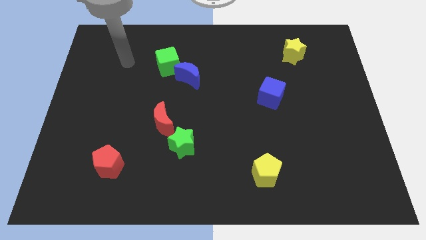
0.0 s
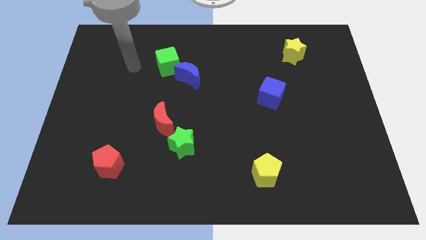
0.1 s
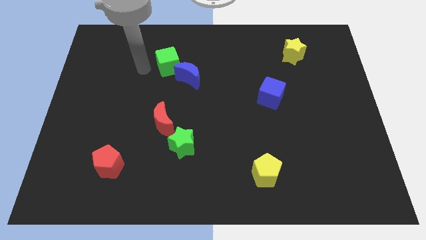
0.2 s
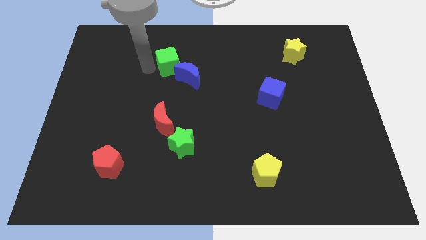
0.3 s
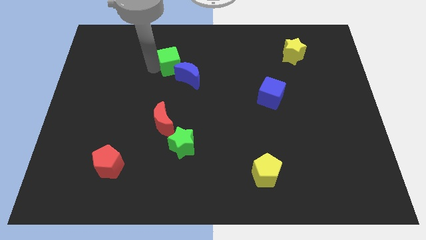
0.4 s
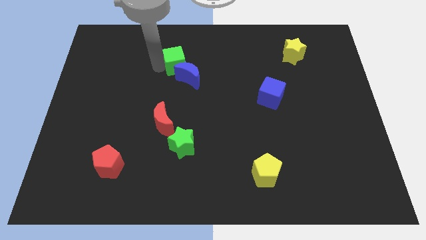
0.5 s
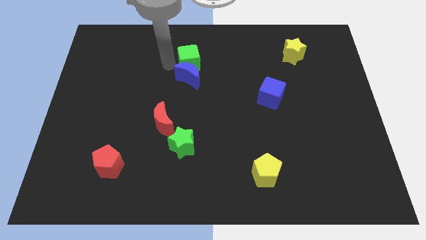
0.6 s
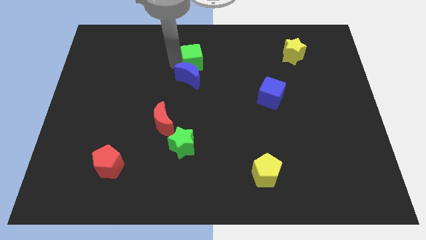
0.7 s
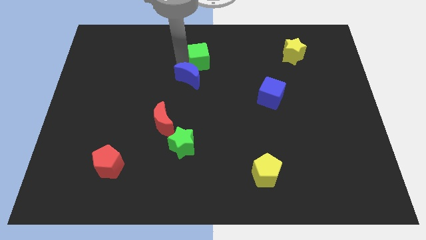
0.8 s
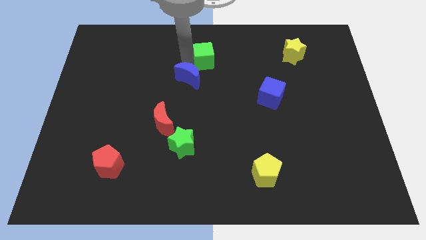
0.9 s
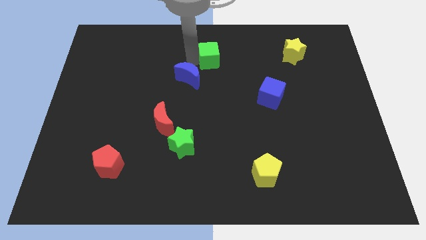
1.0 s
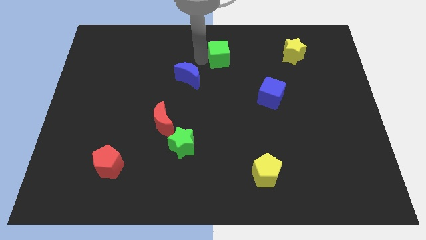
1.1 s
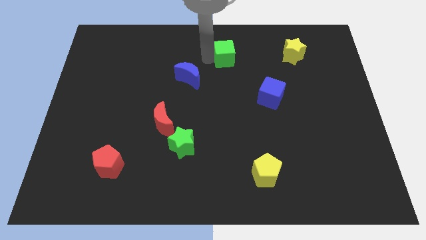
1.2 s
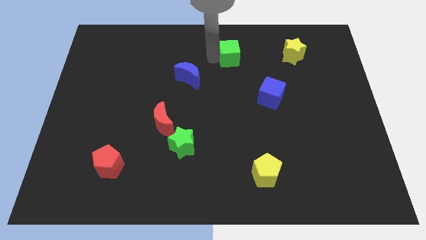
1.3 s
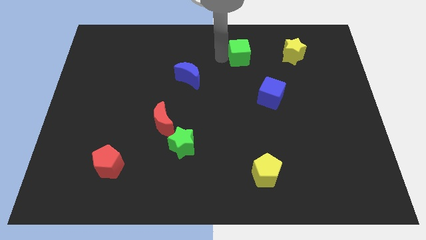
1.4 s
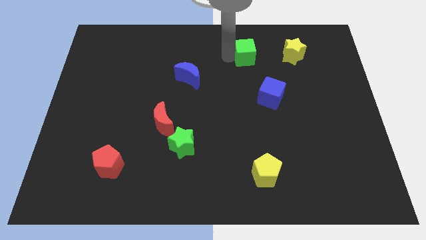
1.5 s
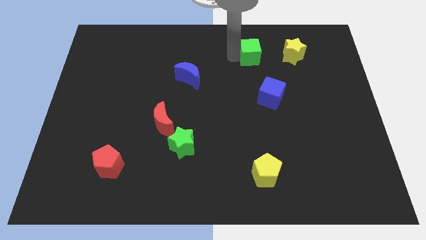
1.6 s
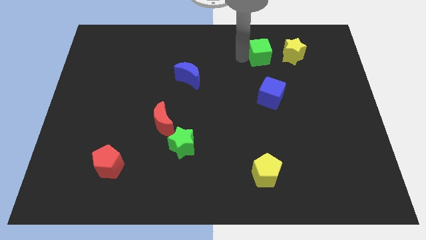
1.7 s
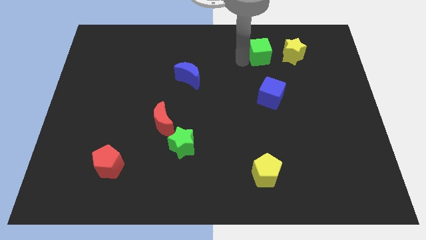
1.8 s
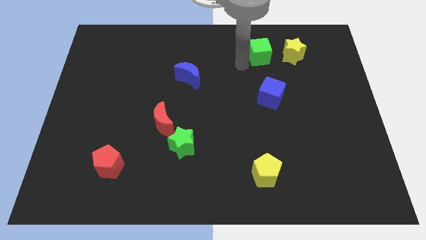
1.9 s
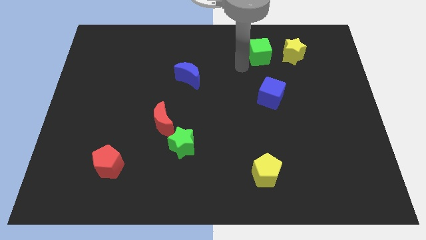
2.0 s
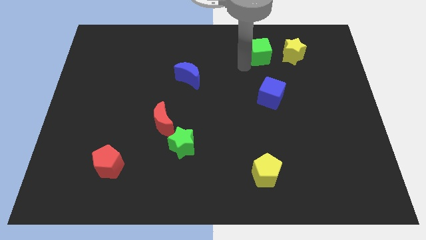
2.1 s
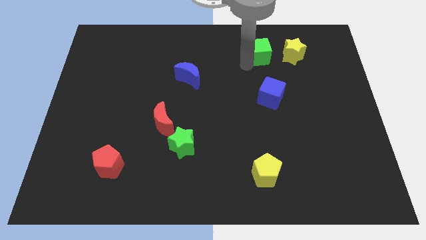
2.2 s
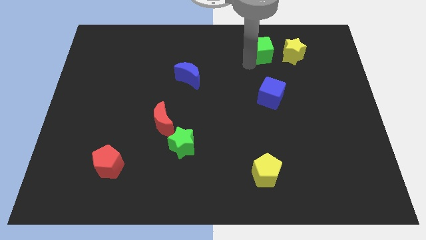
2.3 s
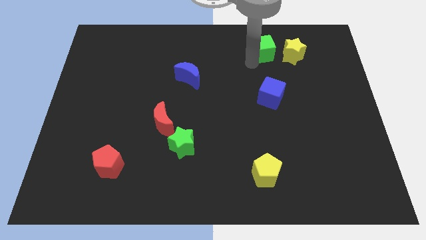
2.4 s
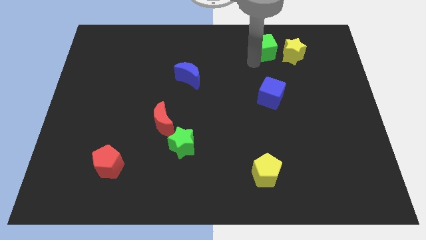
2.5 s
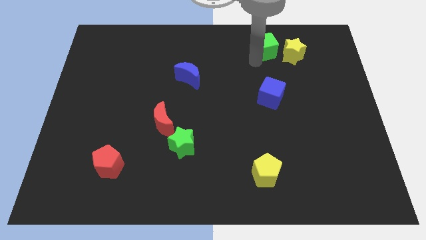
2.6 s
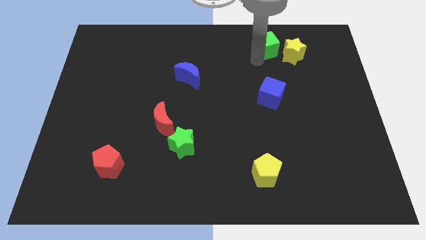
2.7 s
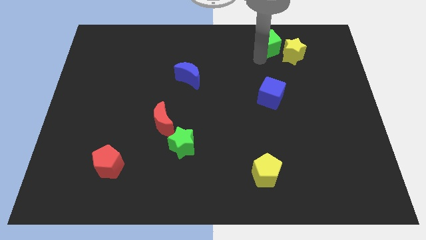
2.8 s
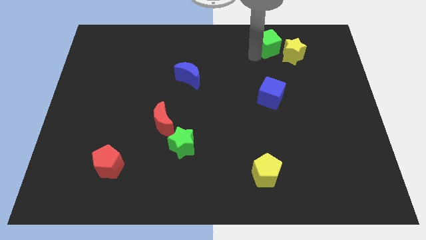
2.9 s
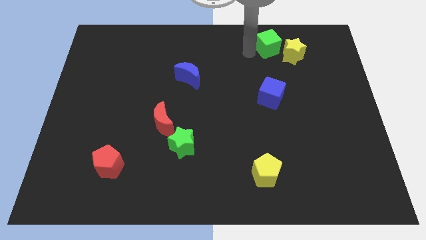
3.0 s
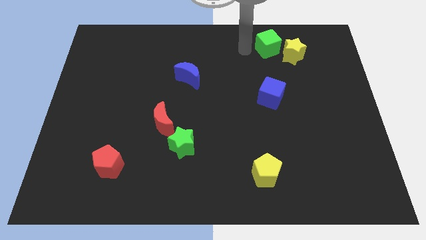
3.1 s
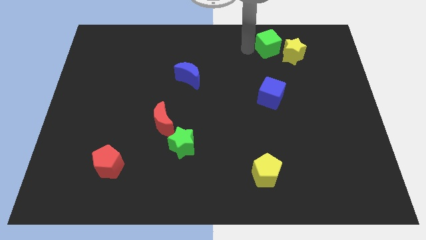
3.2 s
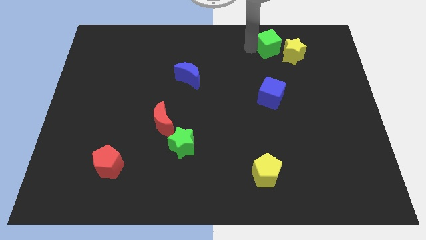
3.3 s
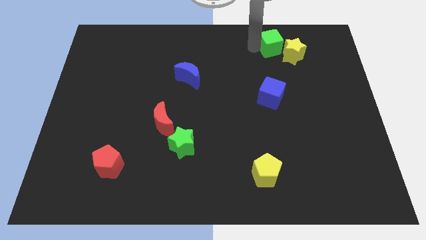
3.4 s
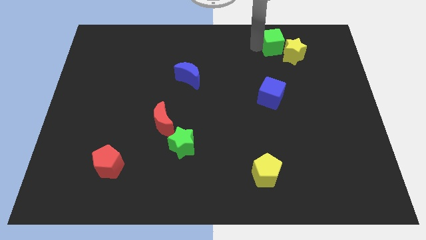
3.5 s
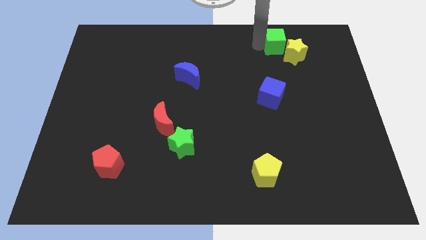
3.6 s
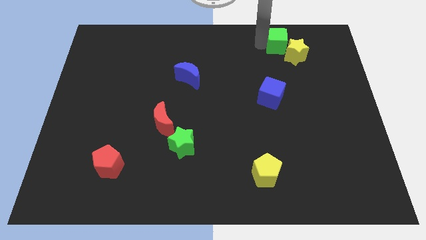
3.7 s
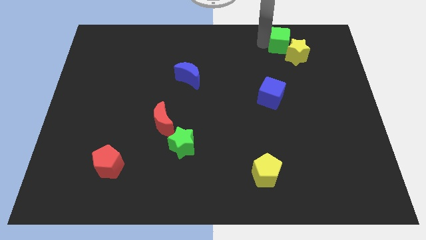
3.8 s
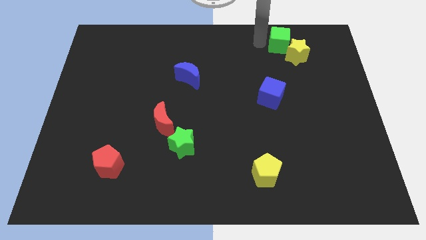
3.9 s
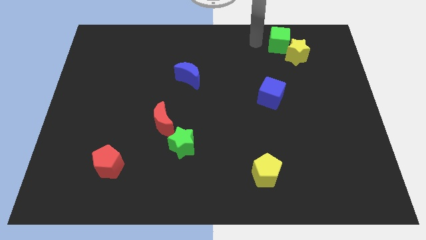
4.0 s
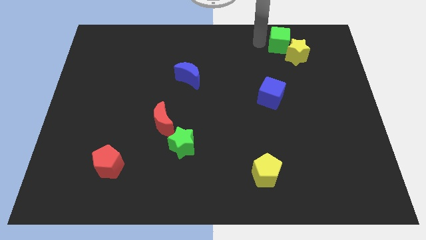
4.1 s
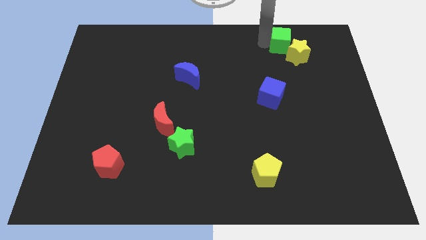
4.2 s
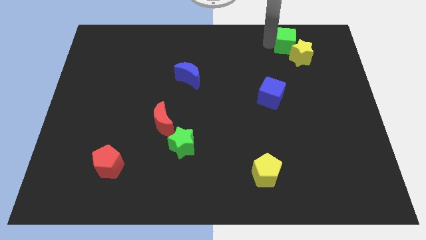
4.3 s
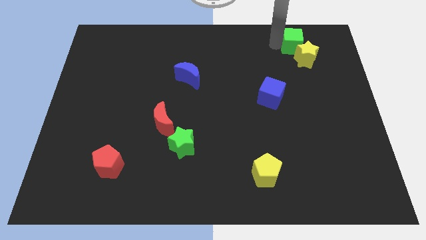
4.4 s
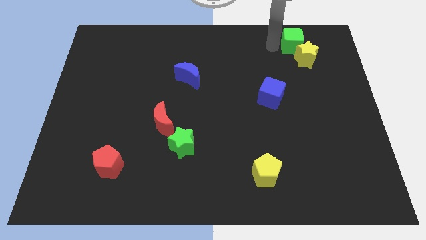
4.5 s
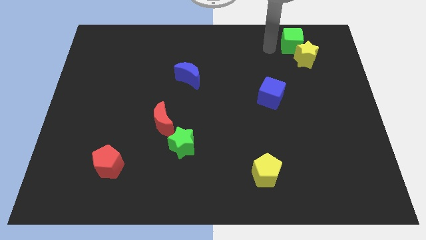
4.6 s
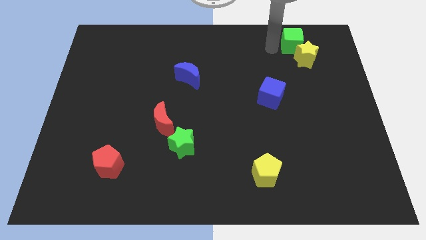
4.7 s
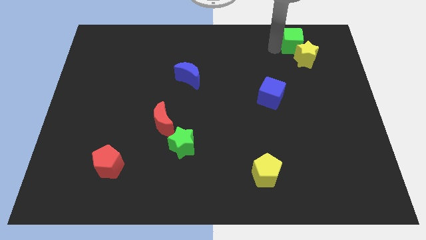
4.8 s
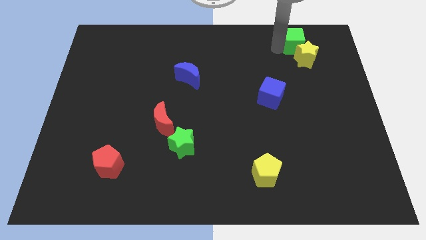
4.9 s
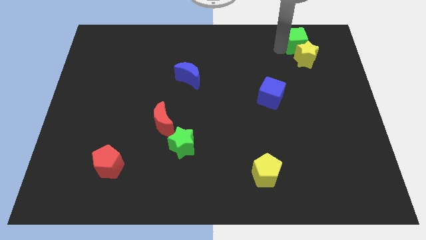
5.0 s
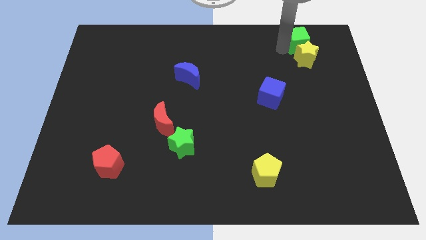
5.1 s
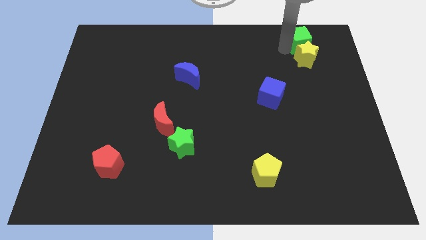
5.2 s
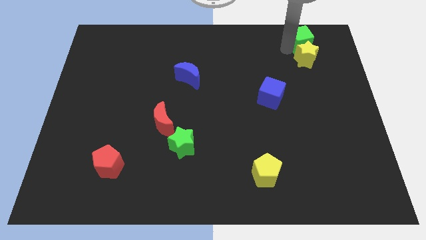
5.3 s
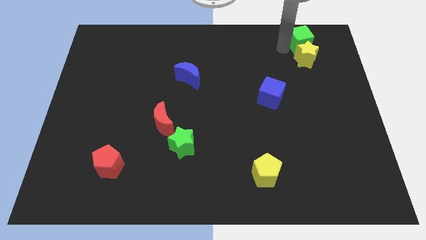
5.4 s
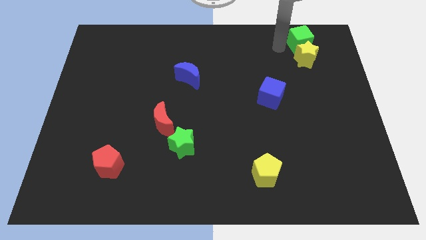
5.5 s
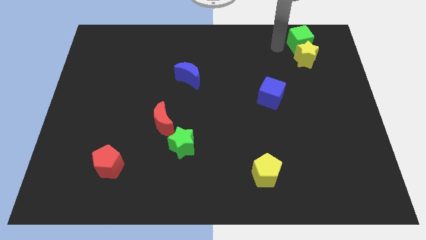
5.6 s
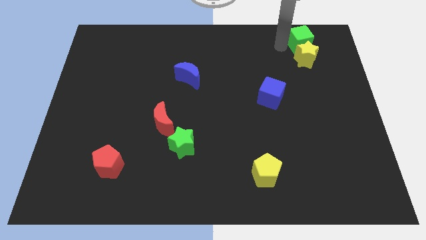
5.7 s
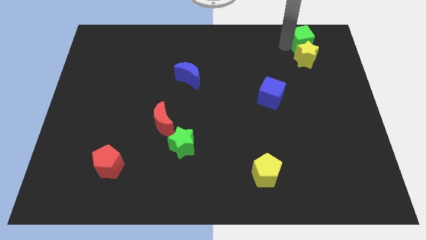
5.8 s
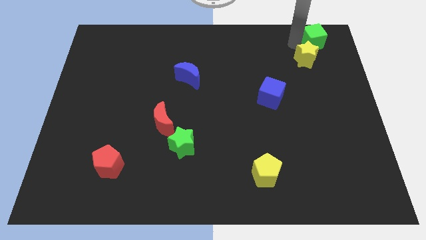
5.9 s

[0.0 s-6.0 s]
push the green cube to the upper right corner
